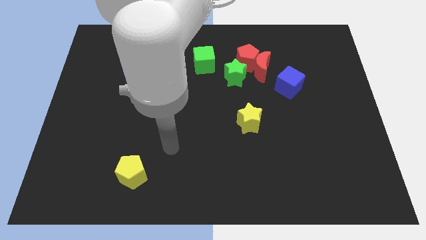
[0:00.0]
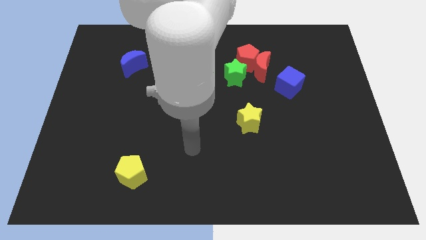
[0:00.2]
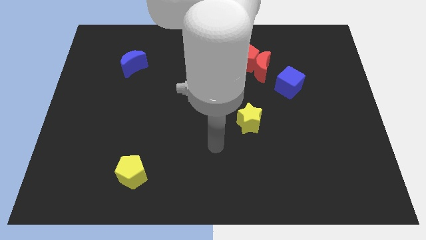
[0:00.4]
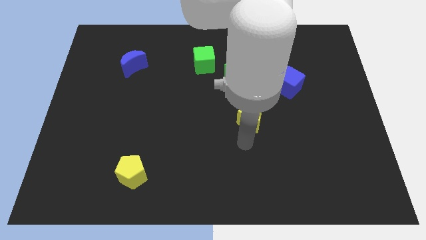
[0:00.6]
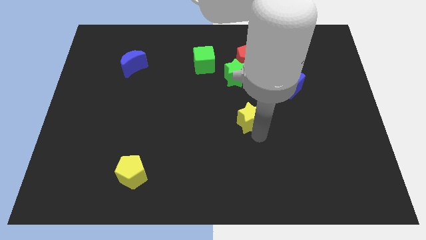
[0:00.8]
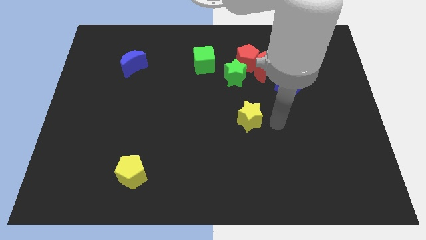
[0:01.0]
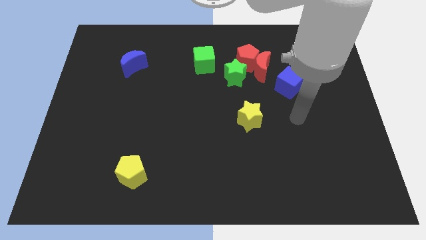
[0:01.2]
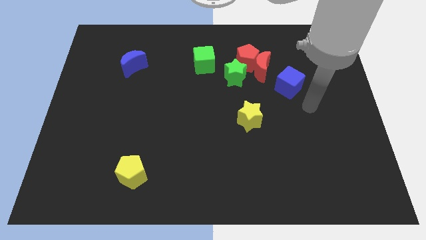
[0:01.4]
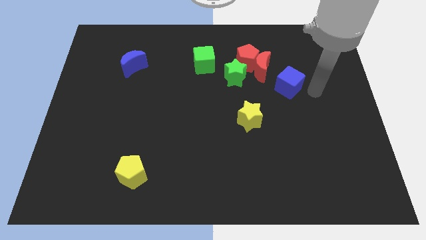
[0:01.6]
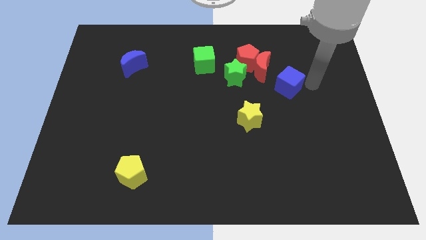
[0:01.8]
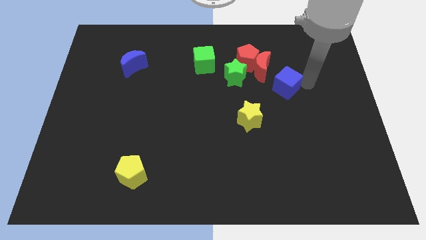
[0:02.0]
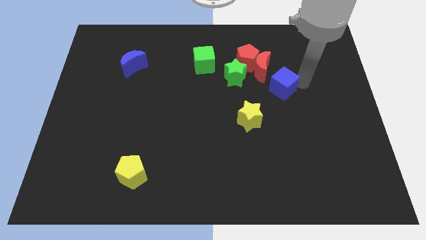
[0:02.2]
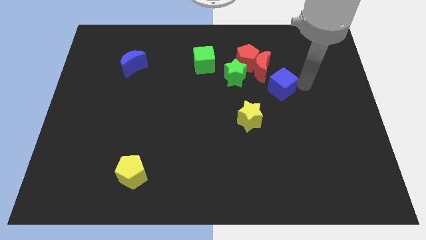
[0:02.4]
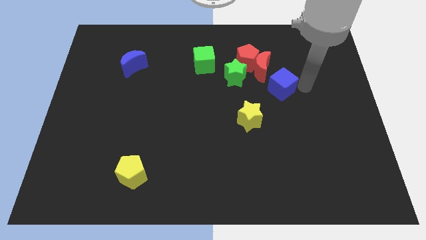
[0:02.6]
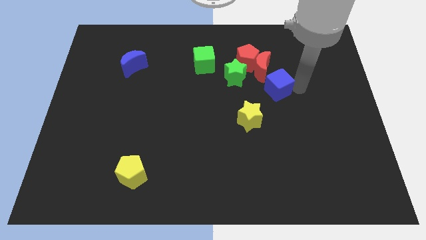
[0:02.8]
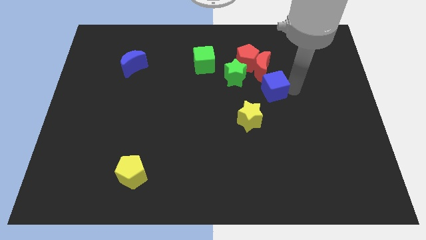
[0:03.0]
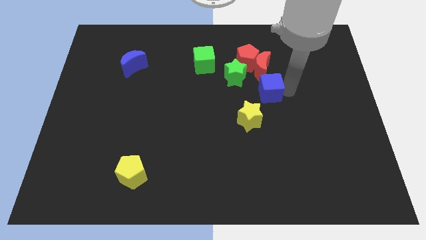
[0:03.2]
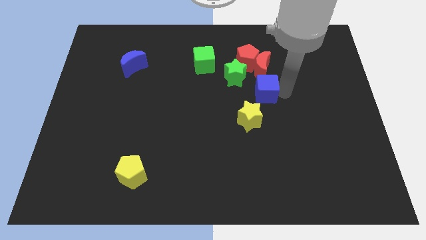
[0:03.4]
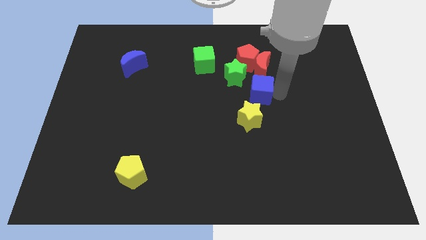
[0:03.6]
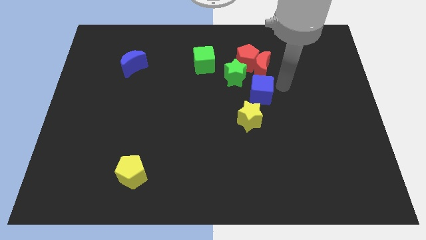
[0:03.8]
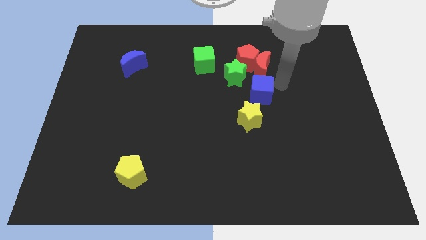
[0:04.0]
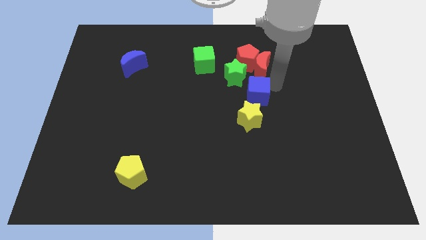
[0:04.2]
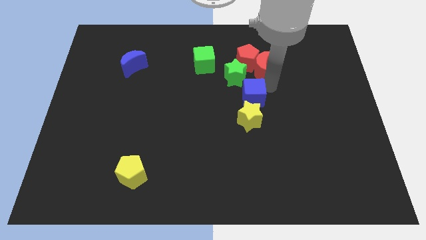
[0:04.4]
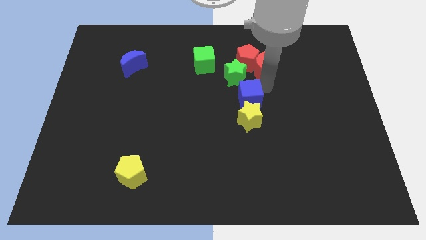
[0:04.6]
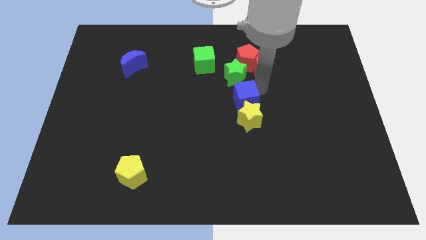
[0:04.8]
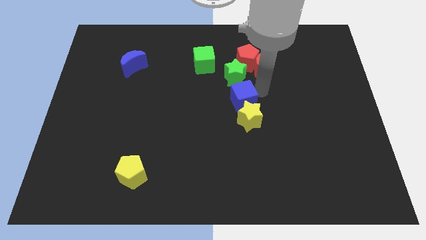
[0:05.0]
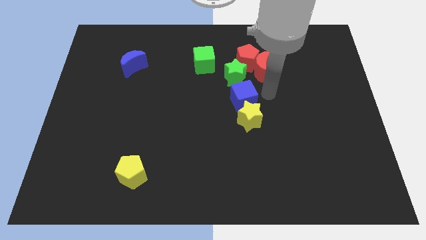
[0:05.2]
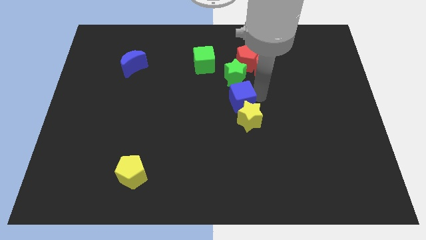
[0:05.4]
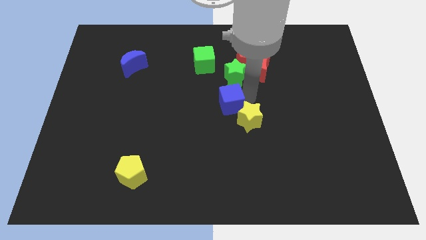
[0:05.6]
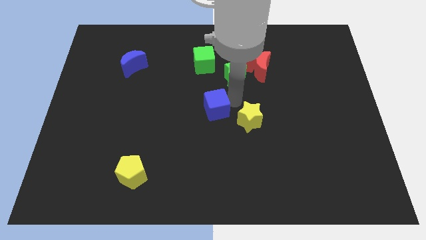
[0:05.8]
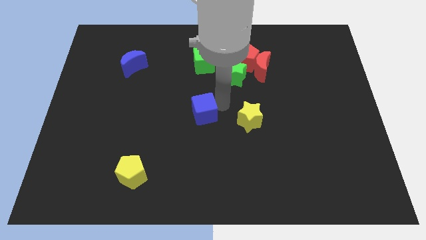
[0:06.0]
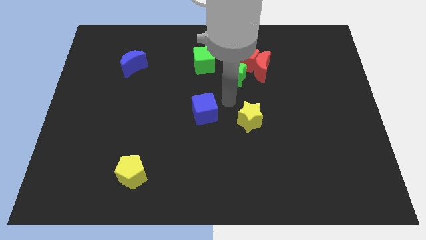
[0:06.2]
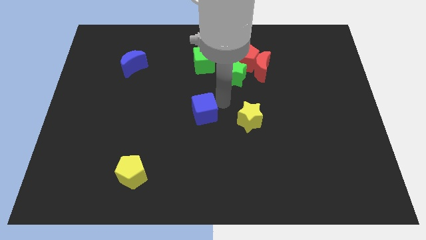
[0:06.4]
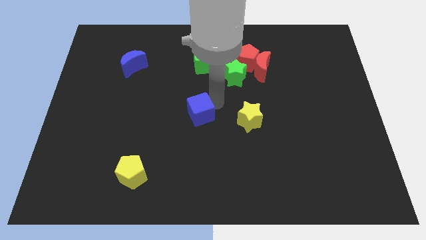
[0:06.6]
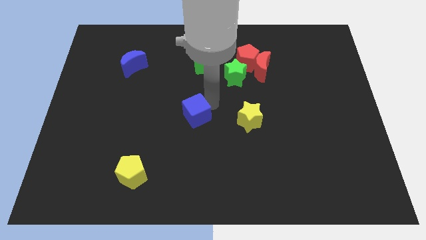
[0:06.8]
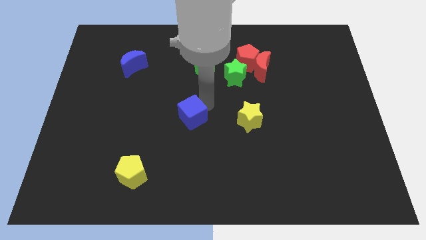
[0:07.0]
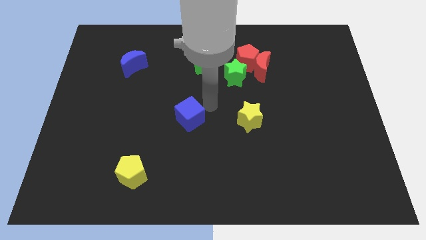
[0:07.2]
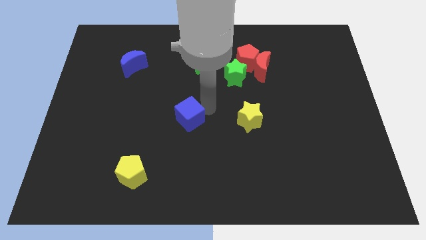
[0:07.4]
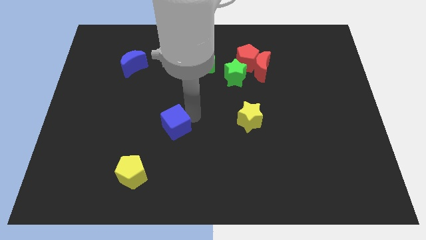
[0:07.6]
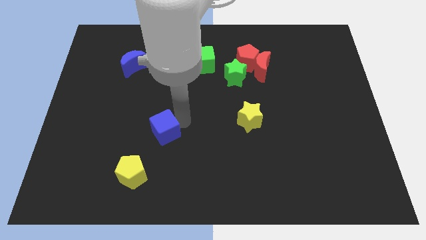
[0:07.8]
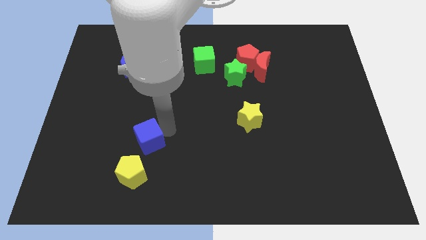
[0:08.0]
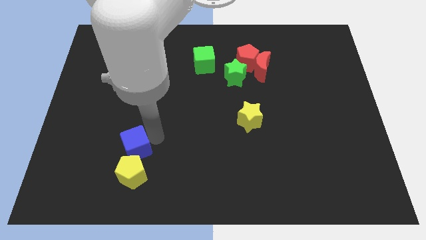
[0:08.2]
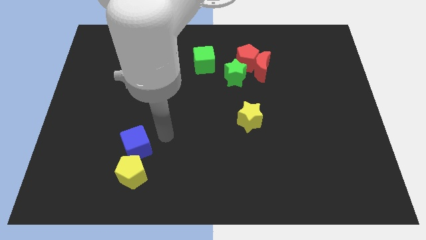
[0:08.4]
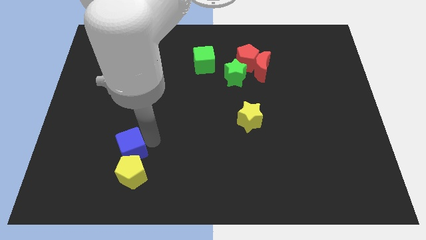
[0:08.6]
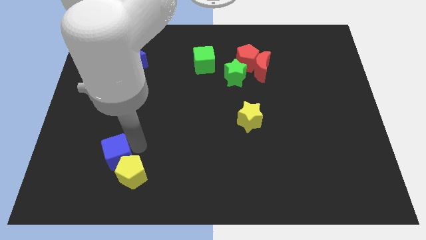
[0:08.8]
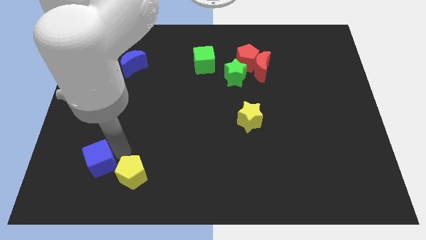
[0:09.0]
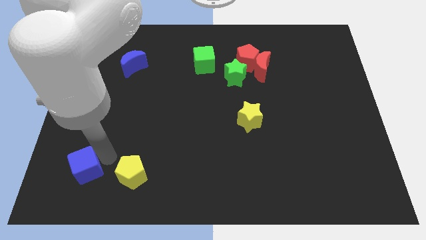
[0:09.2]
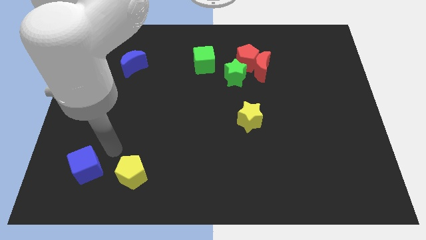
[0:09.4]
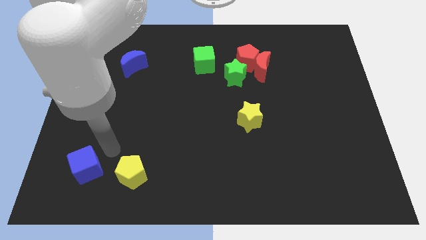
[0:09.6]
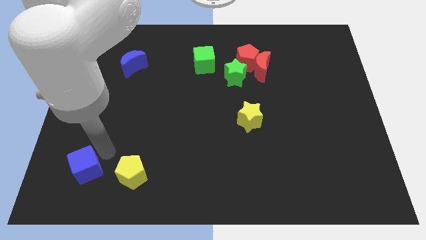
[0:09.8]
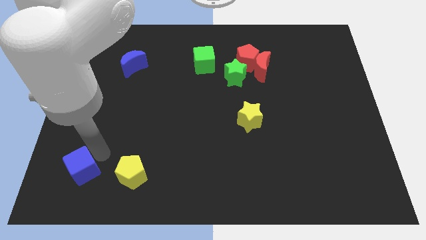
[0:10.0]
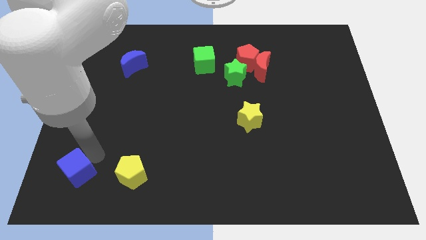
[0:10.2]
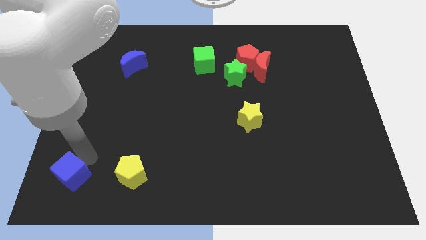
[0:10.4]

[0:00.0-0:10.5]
put the blue cube to the bottom left
